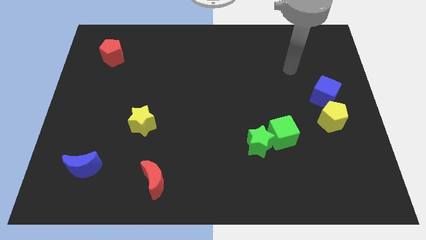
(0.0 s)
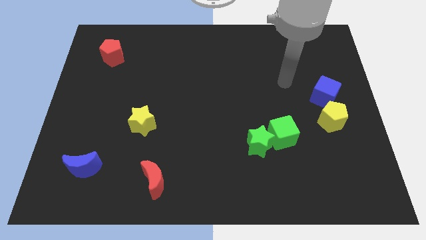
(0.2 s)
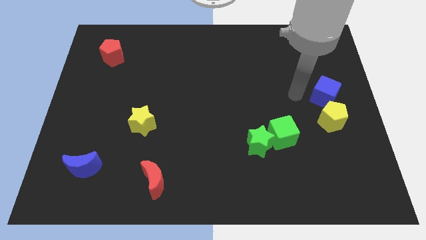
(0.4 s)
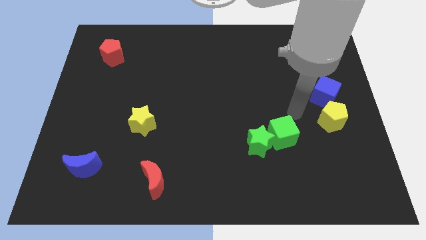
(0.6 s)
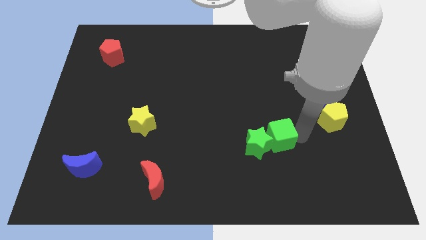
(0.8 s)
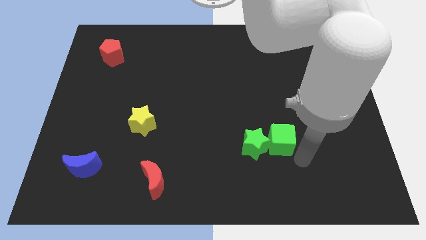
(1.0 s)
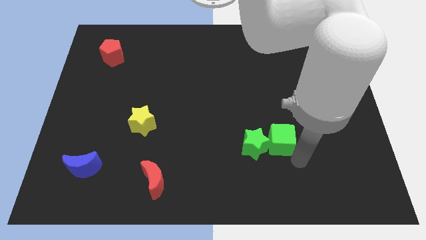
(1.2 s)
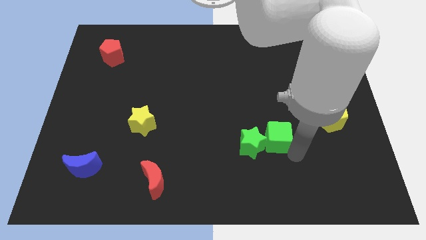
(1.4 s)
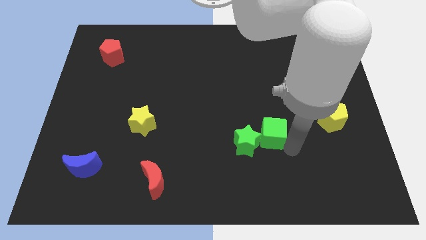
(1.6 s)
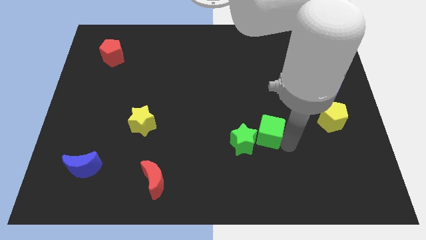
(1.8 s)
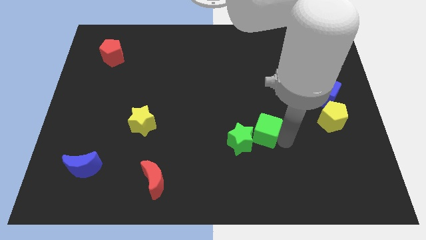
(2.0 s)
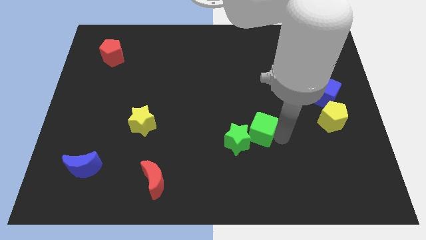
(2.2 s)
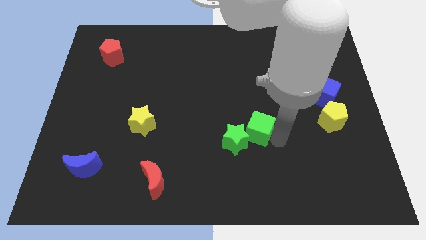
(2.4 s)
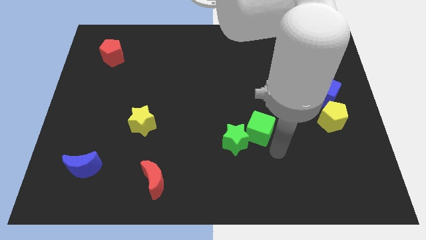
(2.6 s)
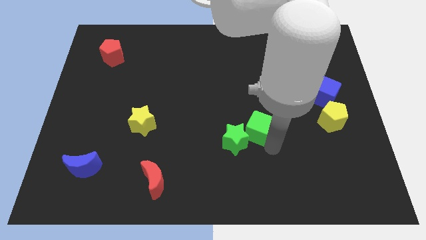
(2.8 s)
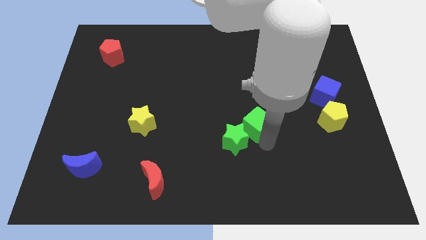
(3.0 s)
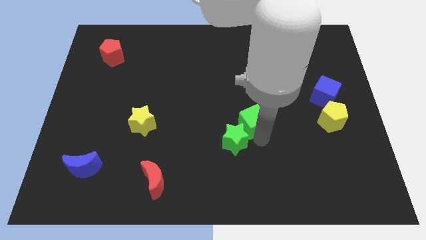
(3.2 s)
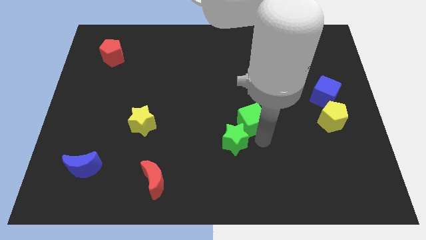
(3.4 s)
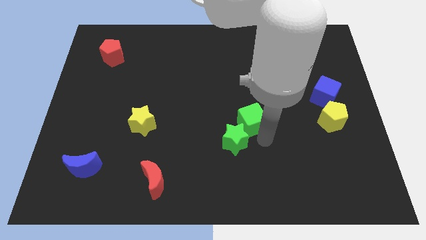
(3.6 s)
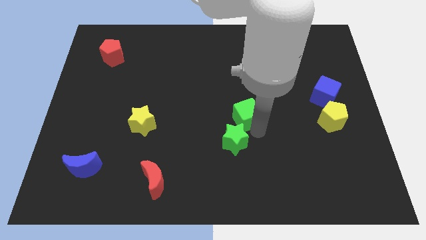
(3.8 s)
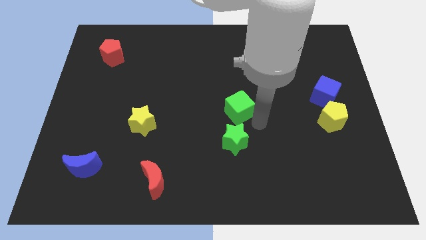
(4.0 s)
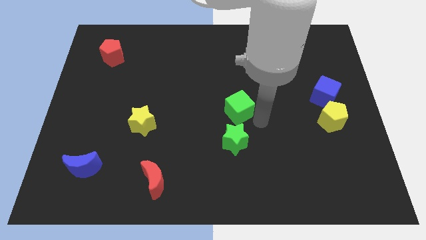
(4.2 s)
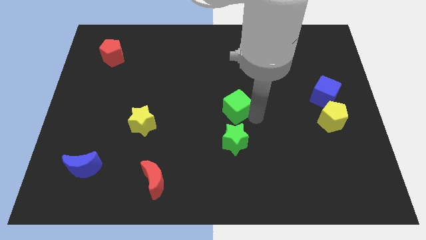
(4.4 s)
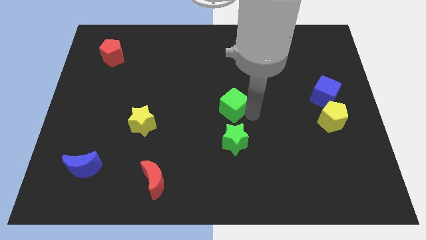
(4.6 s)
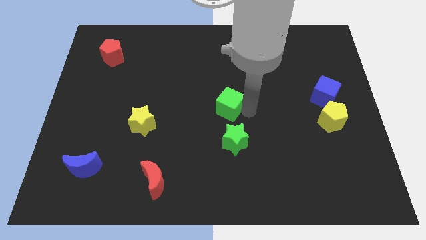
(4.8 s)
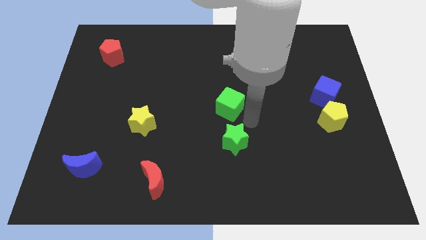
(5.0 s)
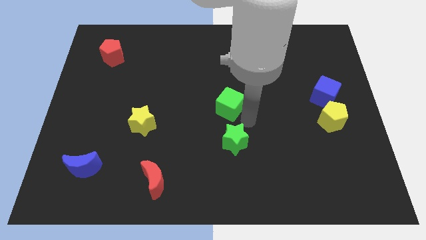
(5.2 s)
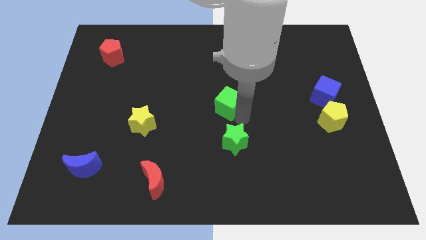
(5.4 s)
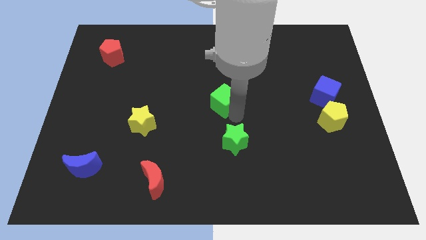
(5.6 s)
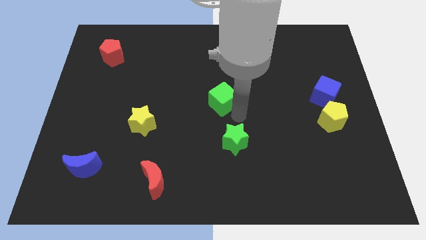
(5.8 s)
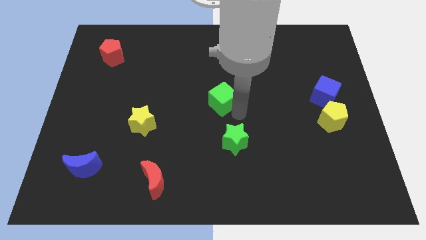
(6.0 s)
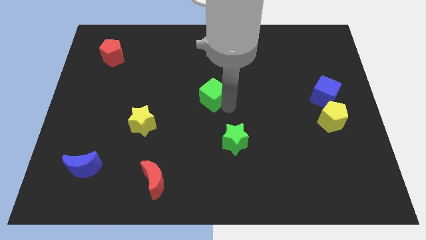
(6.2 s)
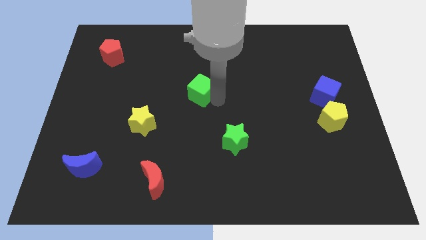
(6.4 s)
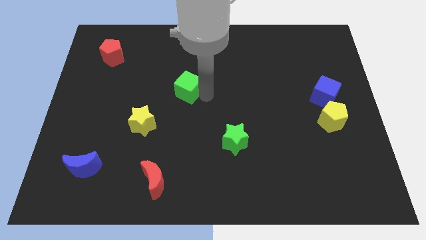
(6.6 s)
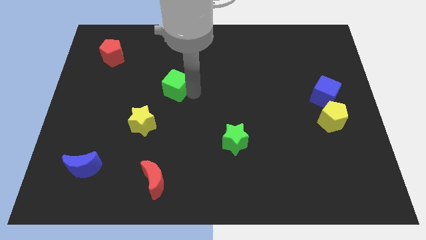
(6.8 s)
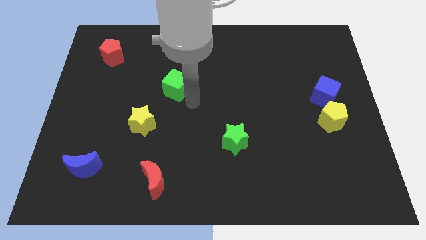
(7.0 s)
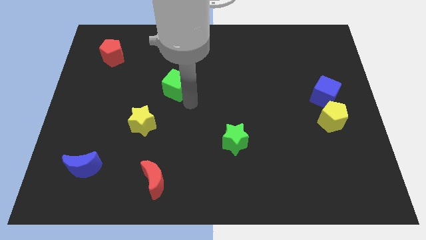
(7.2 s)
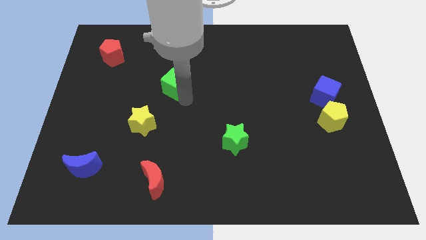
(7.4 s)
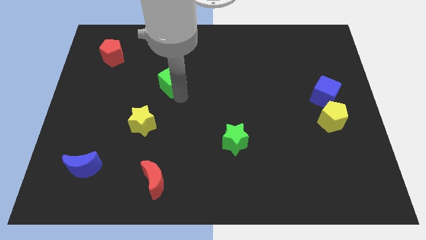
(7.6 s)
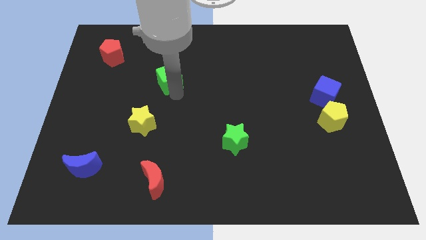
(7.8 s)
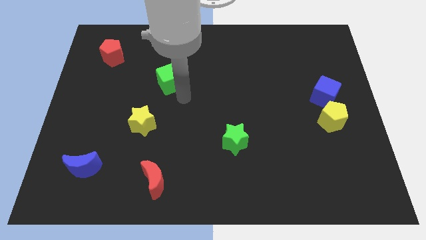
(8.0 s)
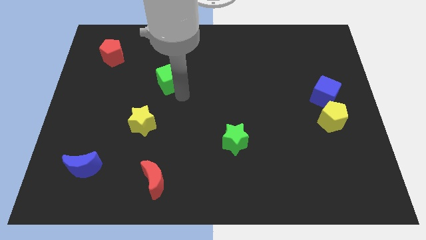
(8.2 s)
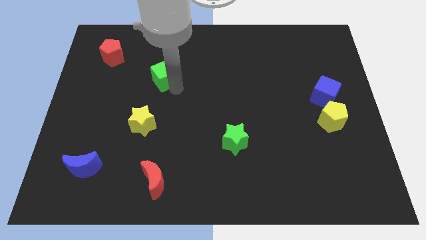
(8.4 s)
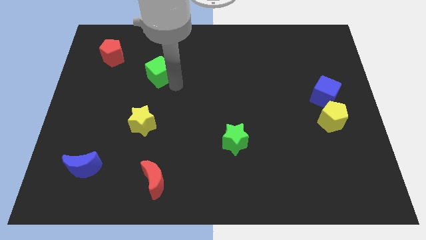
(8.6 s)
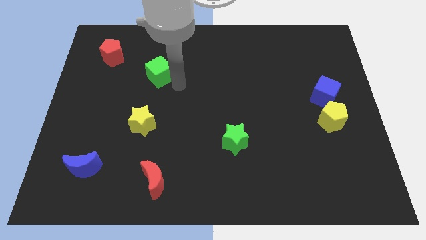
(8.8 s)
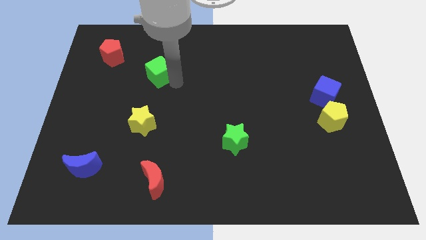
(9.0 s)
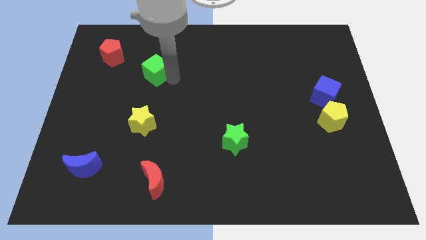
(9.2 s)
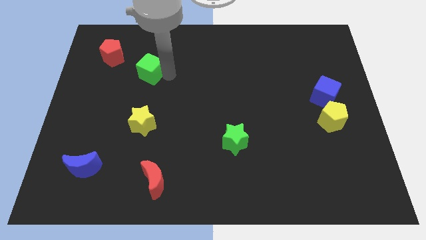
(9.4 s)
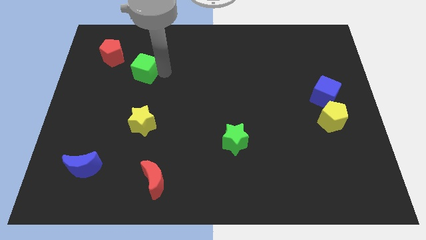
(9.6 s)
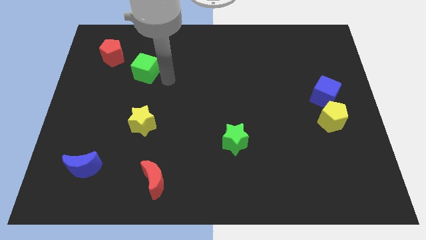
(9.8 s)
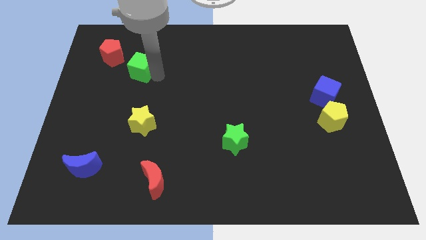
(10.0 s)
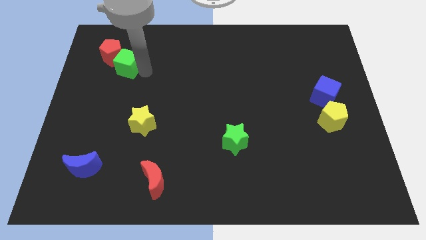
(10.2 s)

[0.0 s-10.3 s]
move the green cube close to the red pentagon

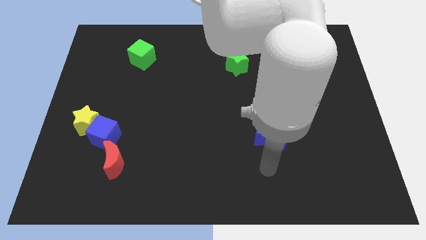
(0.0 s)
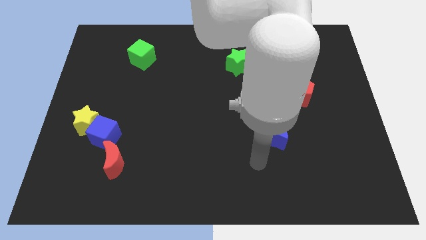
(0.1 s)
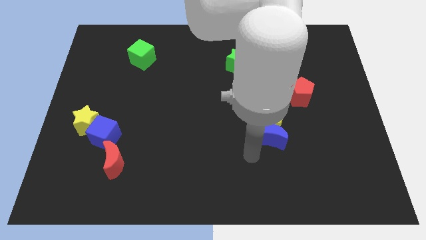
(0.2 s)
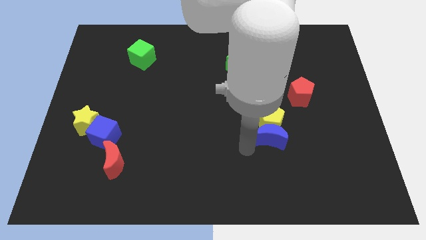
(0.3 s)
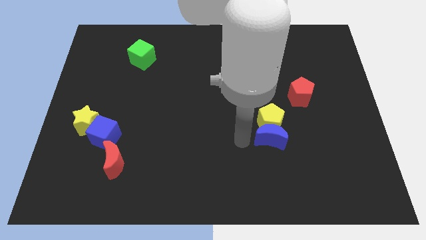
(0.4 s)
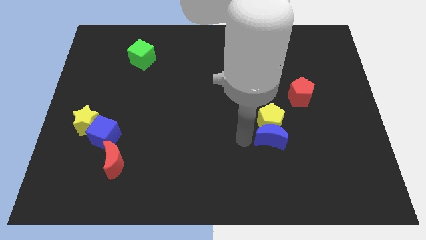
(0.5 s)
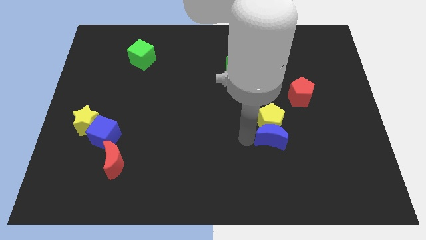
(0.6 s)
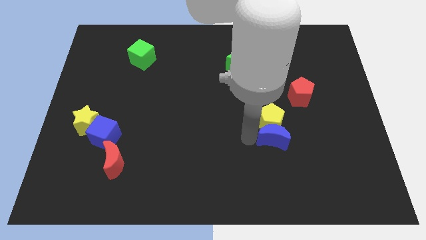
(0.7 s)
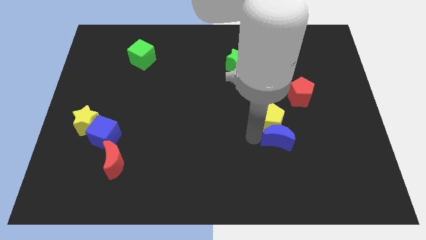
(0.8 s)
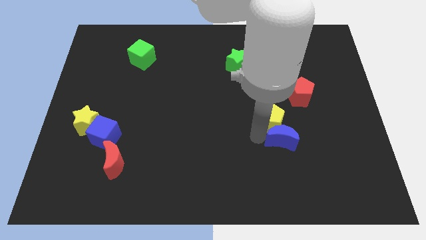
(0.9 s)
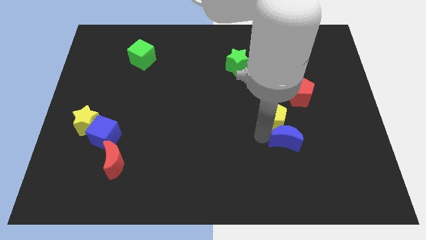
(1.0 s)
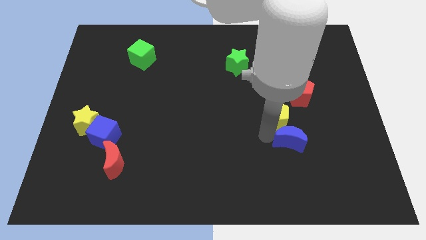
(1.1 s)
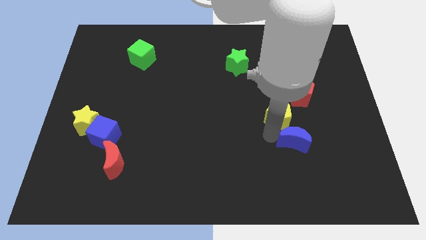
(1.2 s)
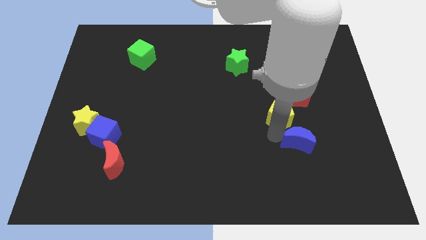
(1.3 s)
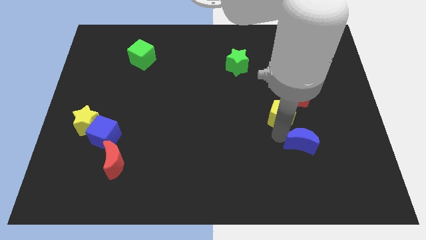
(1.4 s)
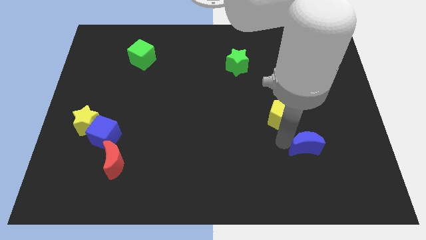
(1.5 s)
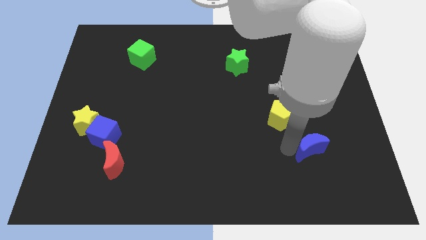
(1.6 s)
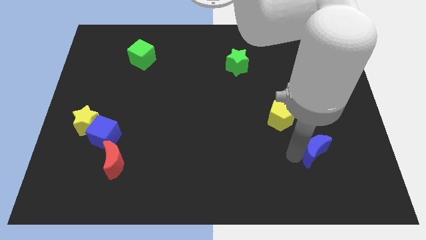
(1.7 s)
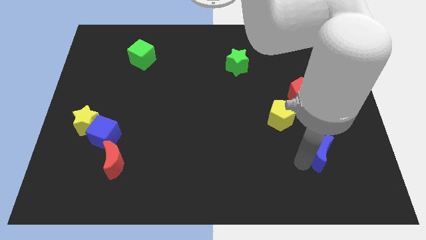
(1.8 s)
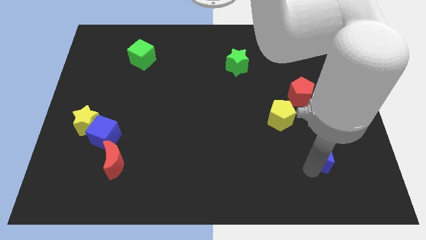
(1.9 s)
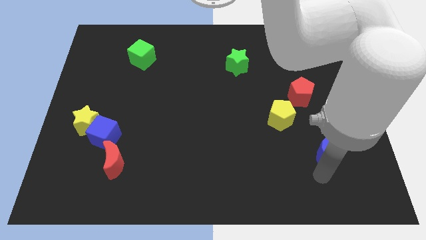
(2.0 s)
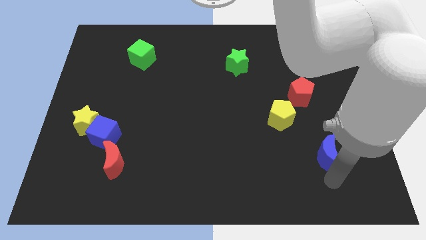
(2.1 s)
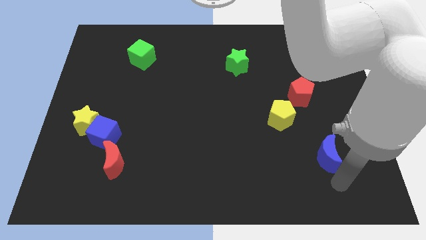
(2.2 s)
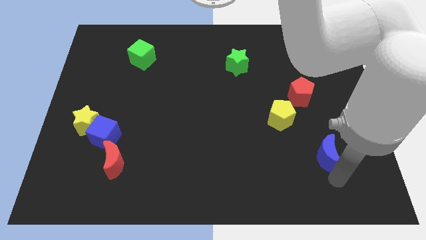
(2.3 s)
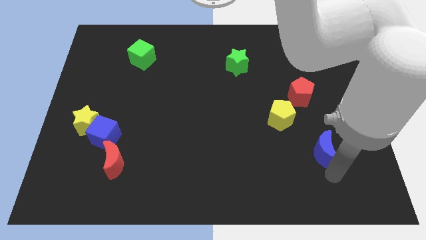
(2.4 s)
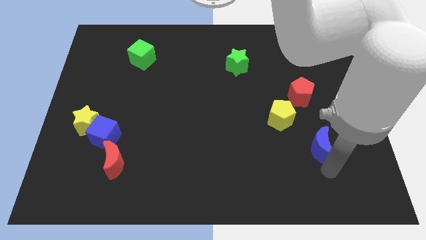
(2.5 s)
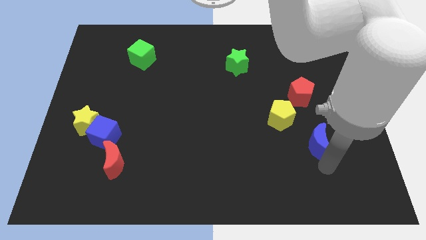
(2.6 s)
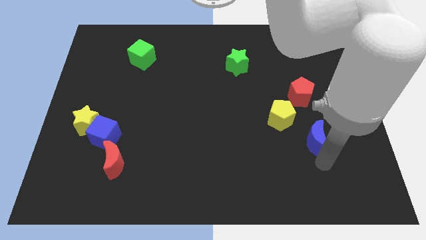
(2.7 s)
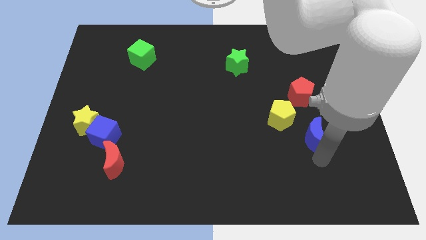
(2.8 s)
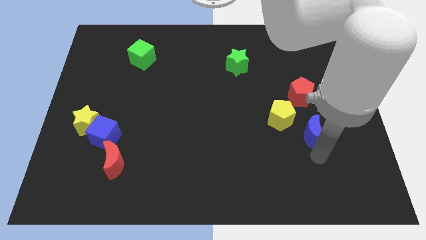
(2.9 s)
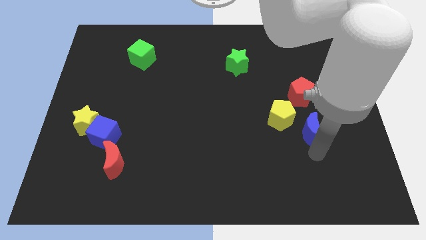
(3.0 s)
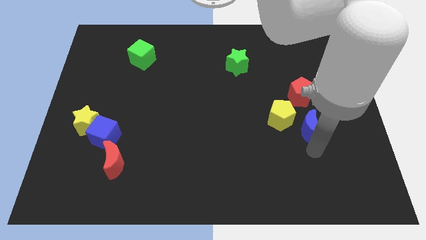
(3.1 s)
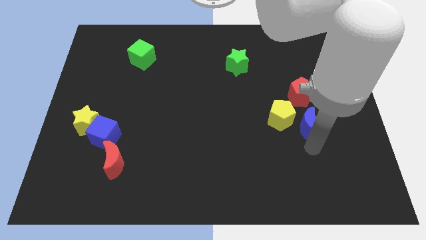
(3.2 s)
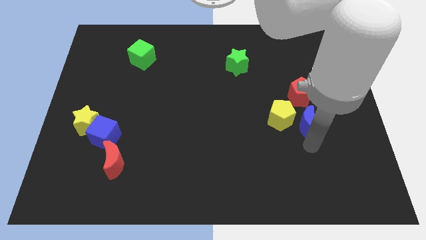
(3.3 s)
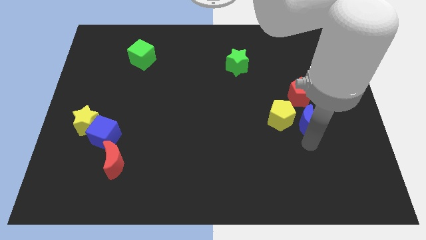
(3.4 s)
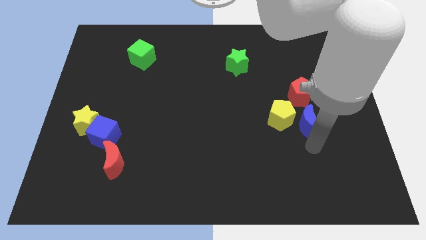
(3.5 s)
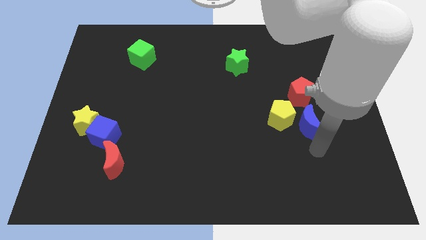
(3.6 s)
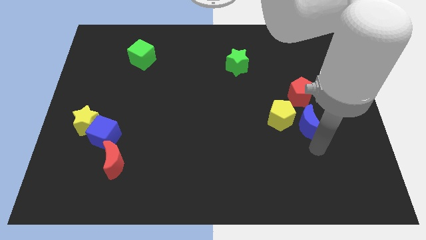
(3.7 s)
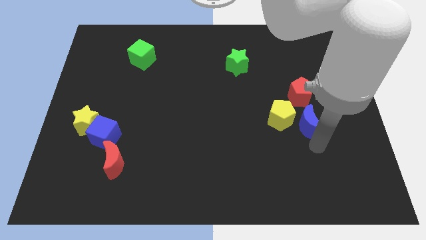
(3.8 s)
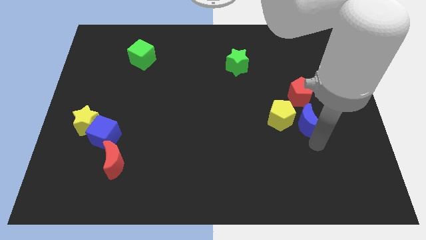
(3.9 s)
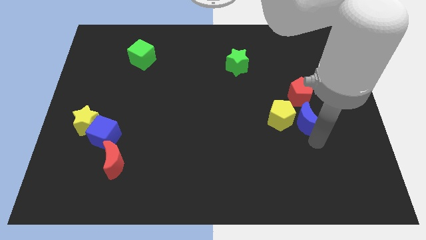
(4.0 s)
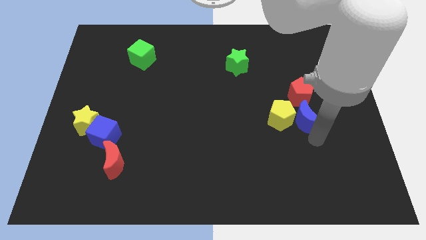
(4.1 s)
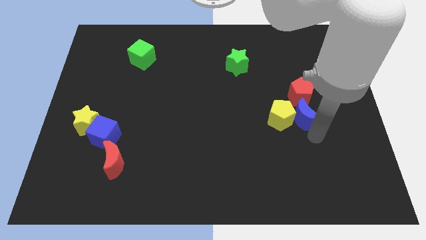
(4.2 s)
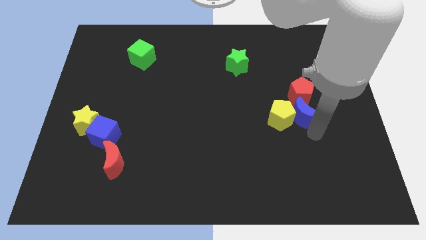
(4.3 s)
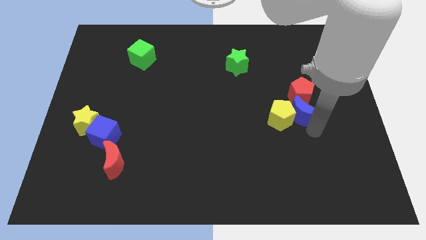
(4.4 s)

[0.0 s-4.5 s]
push the blue moon towards the red pentagon
